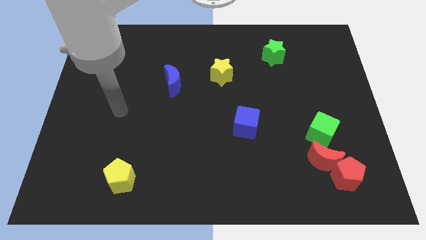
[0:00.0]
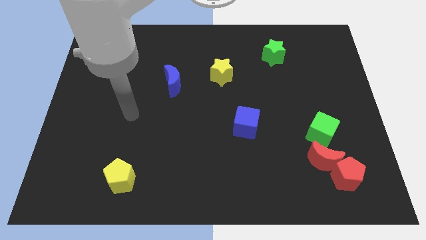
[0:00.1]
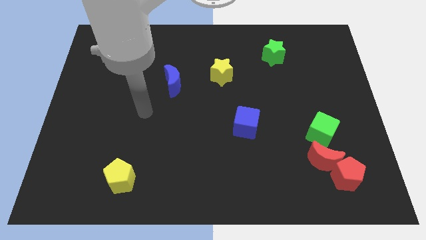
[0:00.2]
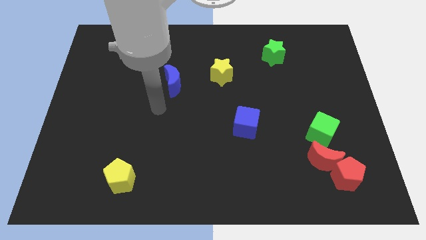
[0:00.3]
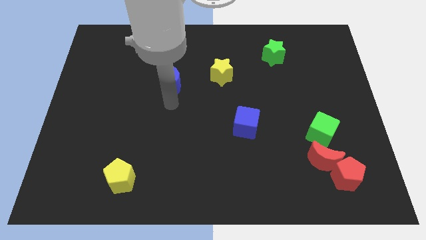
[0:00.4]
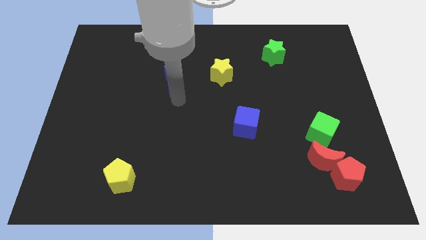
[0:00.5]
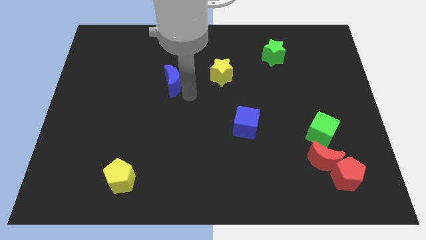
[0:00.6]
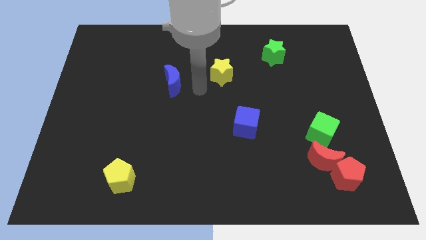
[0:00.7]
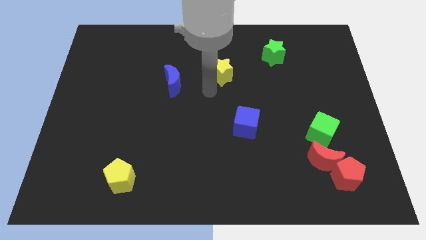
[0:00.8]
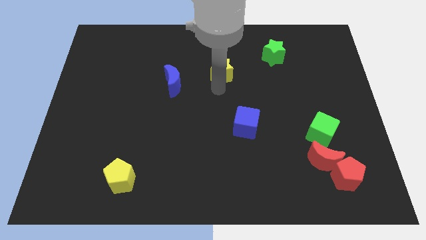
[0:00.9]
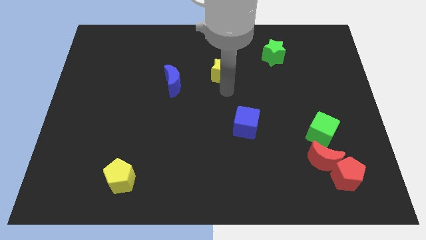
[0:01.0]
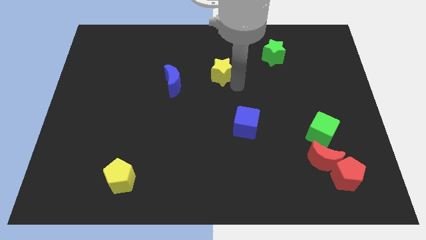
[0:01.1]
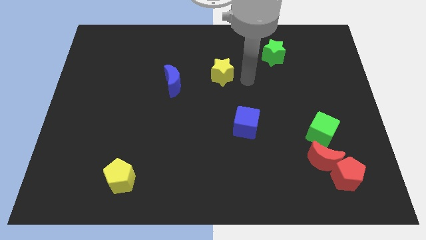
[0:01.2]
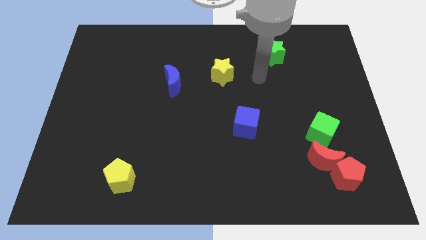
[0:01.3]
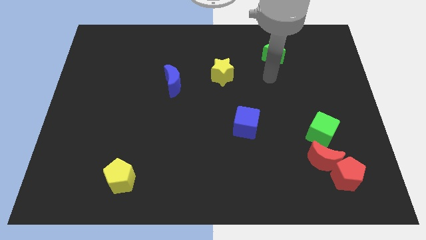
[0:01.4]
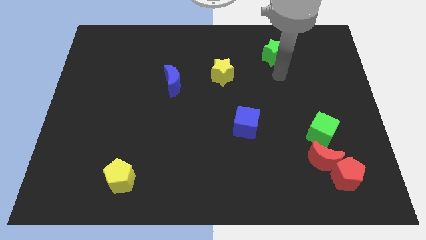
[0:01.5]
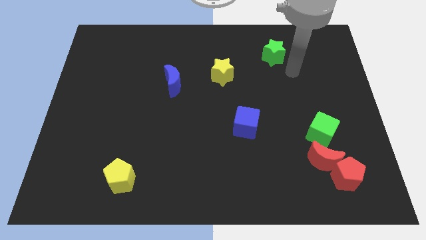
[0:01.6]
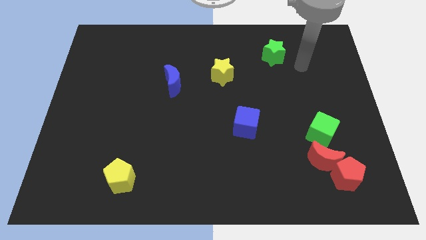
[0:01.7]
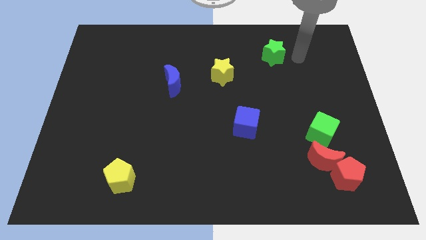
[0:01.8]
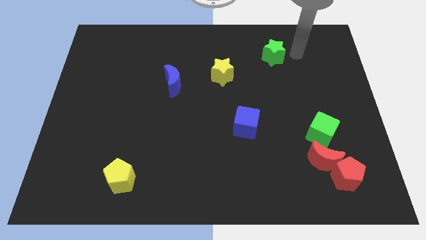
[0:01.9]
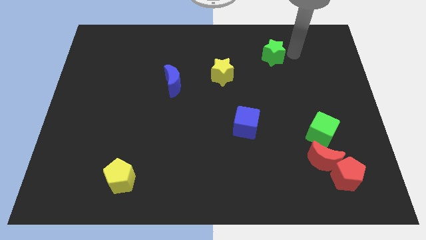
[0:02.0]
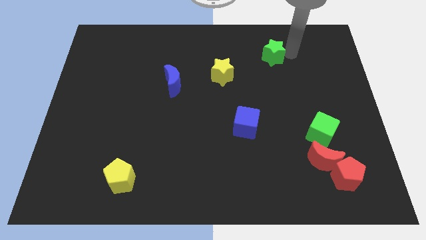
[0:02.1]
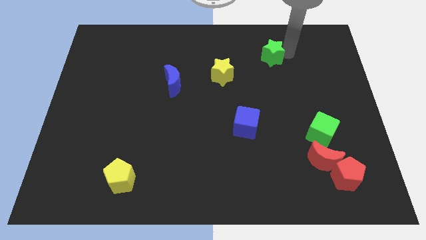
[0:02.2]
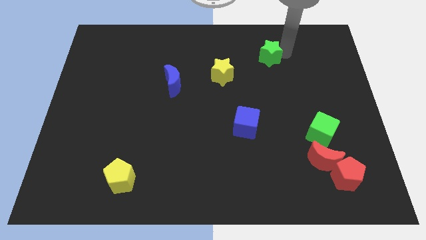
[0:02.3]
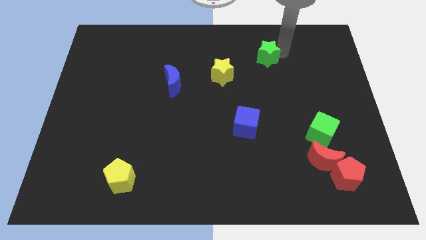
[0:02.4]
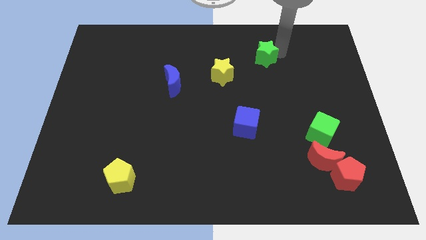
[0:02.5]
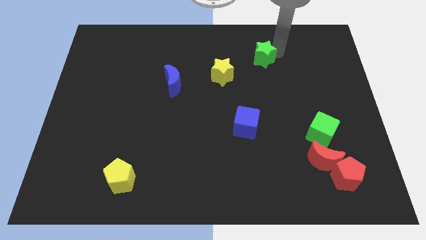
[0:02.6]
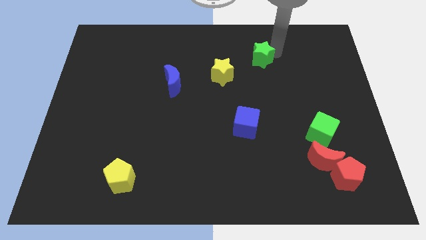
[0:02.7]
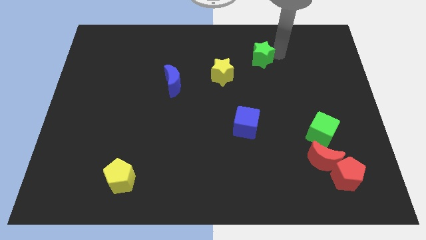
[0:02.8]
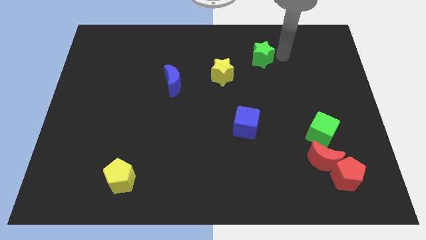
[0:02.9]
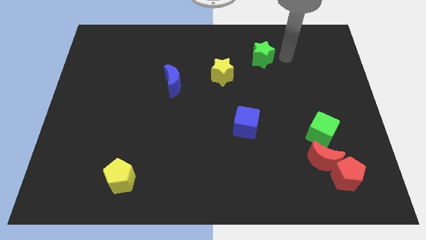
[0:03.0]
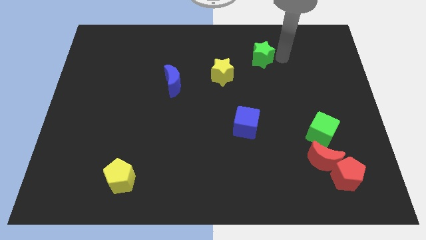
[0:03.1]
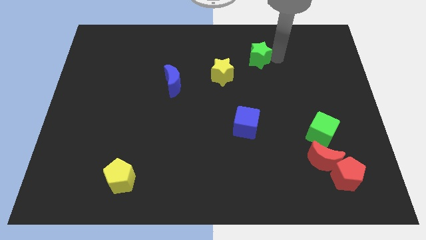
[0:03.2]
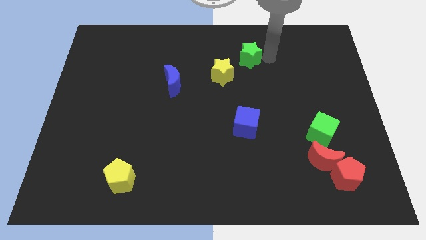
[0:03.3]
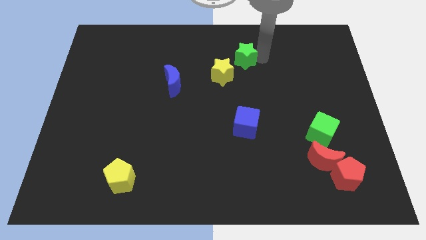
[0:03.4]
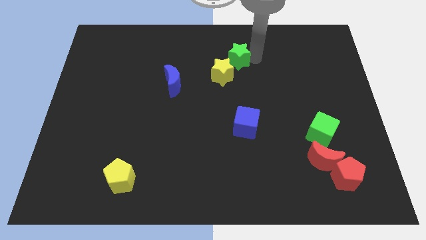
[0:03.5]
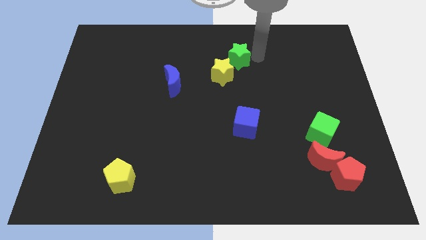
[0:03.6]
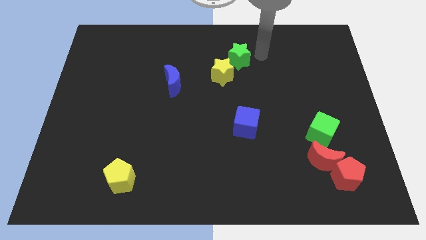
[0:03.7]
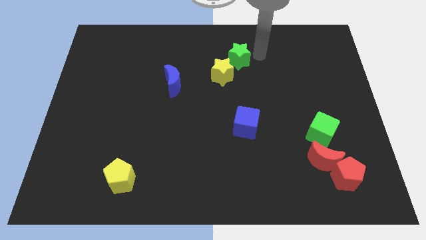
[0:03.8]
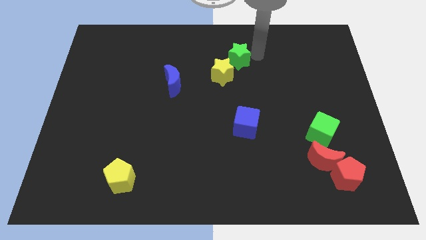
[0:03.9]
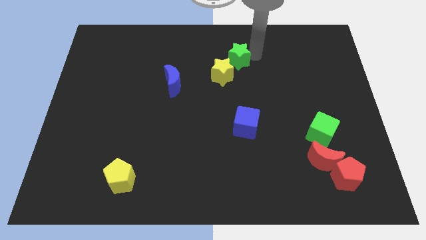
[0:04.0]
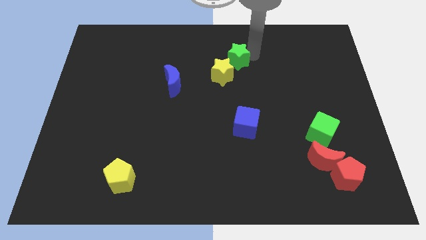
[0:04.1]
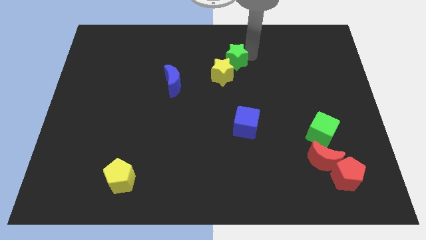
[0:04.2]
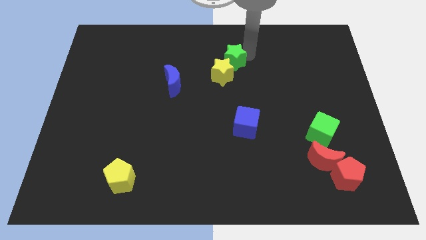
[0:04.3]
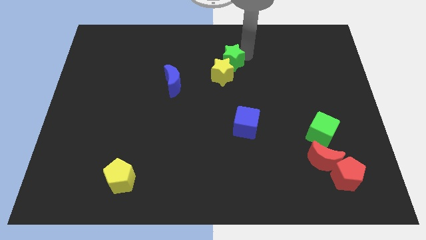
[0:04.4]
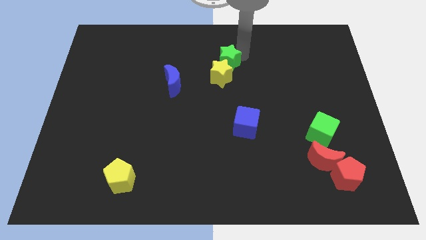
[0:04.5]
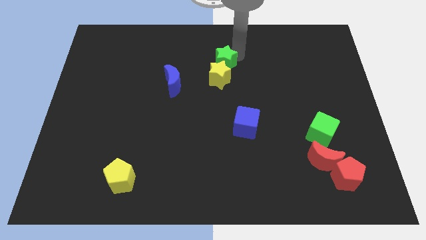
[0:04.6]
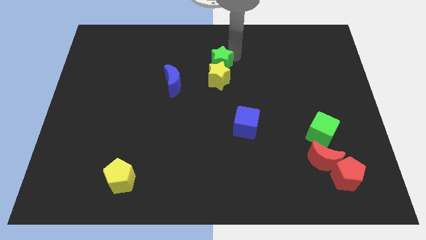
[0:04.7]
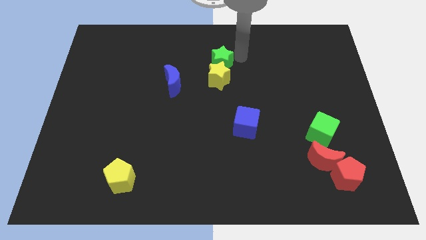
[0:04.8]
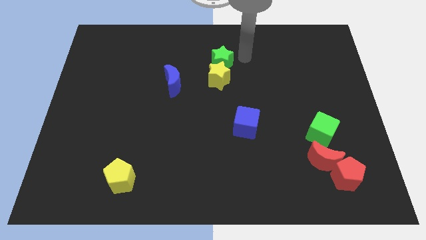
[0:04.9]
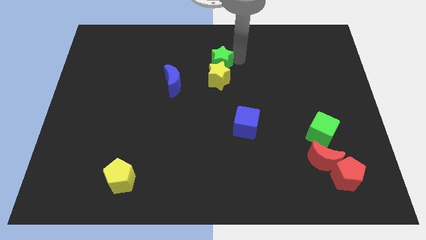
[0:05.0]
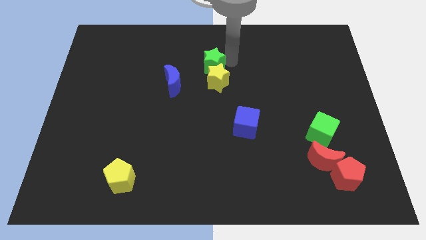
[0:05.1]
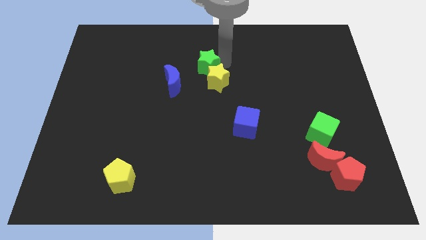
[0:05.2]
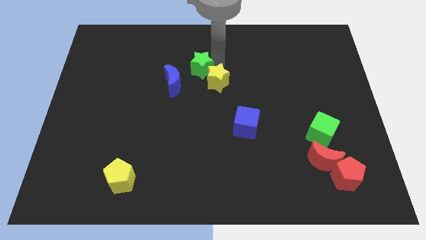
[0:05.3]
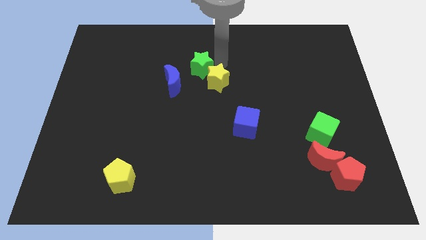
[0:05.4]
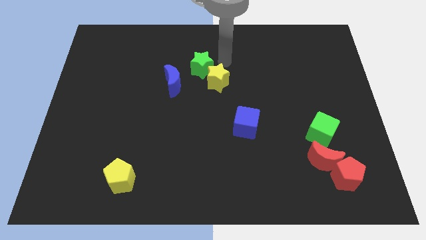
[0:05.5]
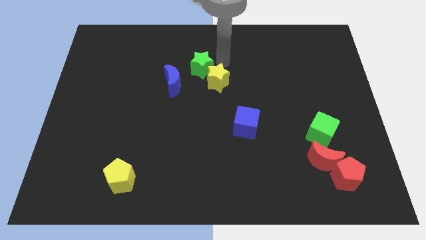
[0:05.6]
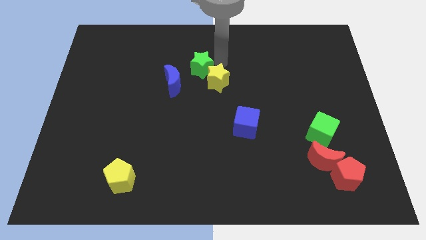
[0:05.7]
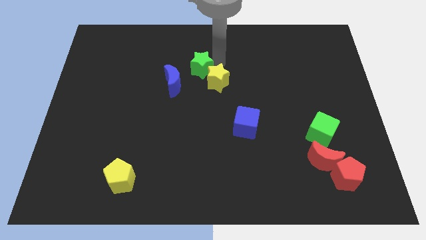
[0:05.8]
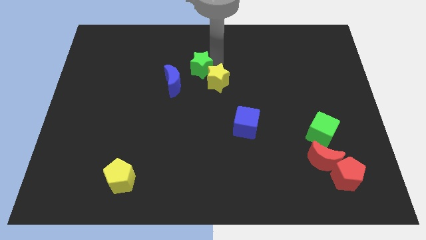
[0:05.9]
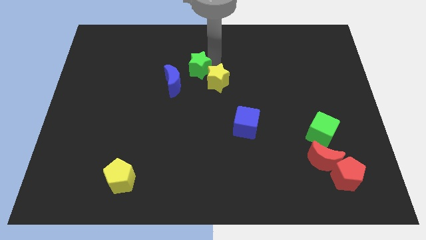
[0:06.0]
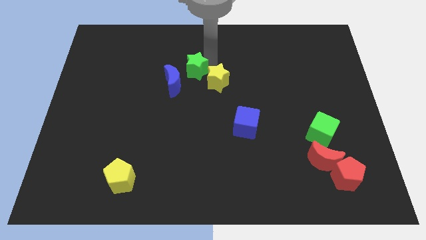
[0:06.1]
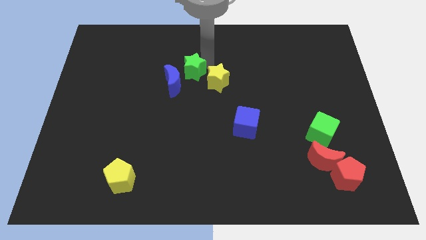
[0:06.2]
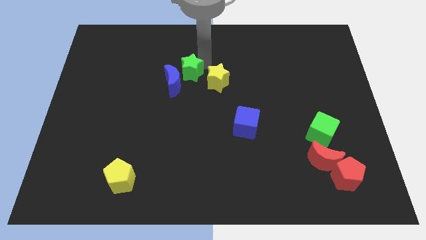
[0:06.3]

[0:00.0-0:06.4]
push the green star next to the blue moon
